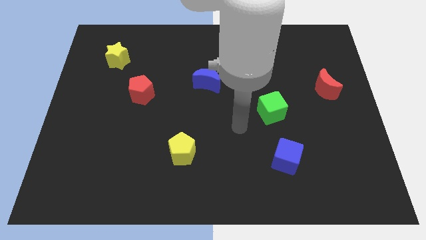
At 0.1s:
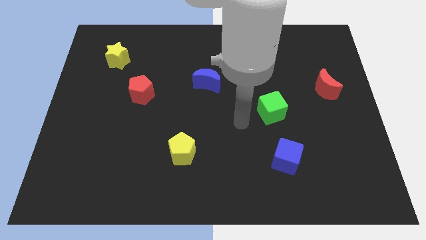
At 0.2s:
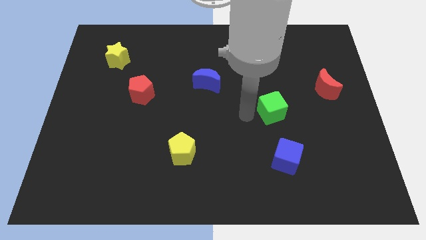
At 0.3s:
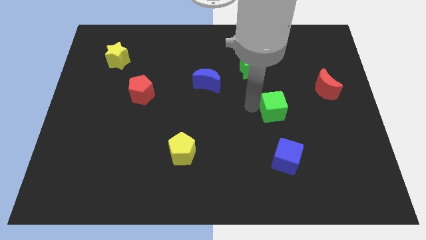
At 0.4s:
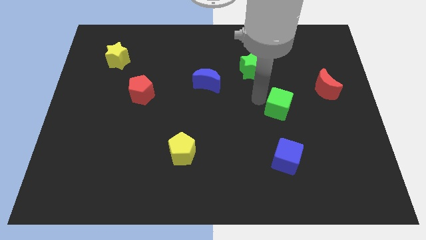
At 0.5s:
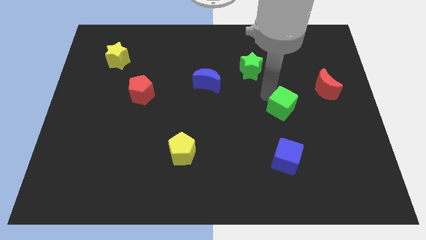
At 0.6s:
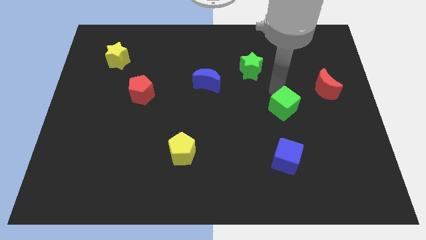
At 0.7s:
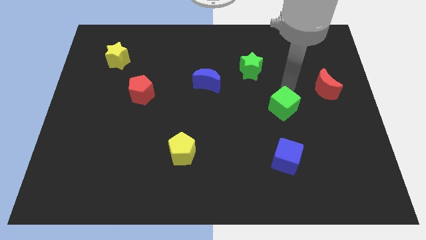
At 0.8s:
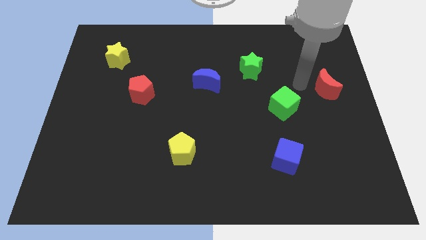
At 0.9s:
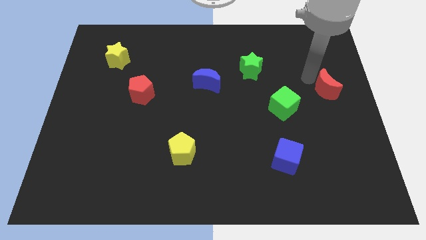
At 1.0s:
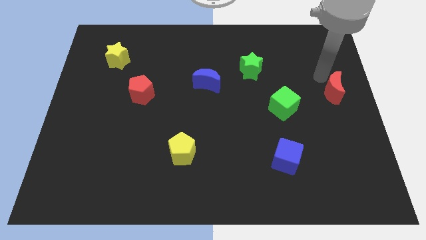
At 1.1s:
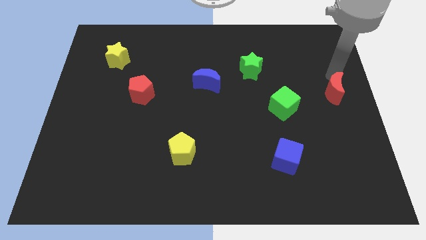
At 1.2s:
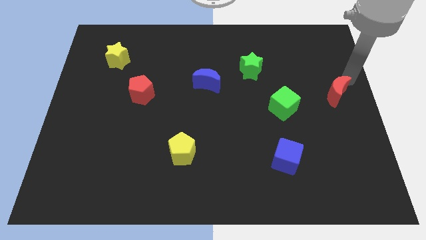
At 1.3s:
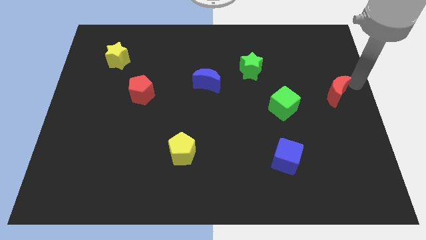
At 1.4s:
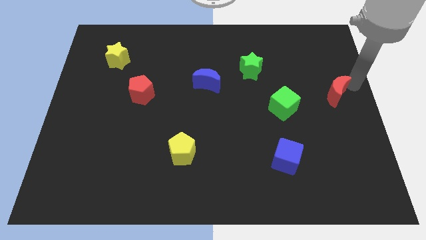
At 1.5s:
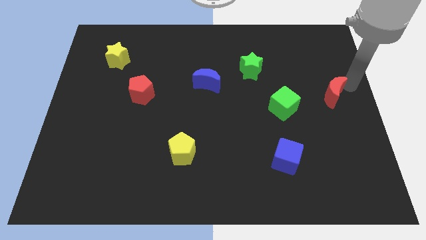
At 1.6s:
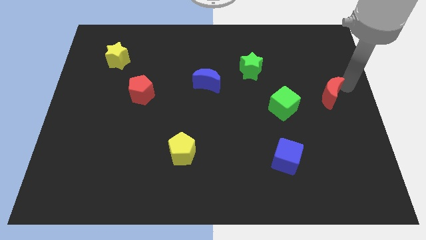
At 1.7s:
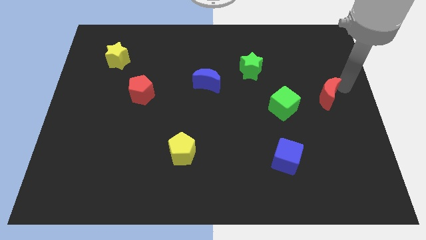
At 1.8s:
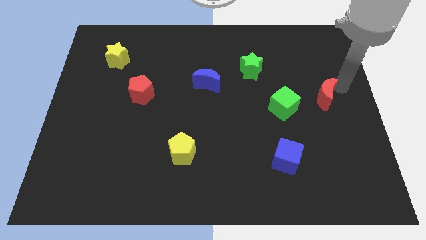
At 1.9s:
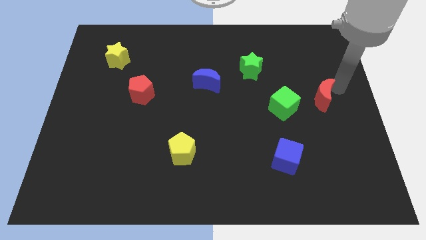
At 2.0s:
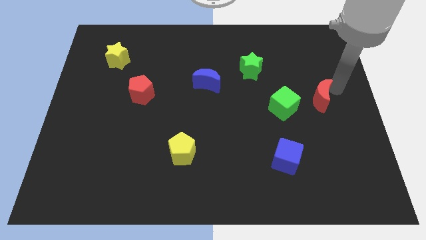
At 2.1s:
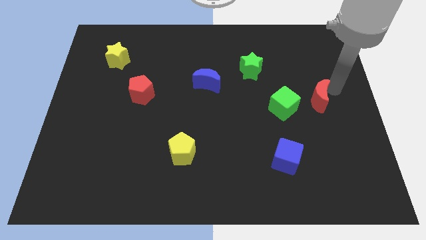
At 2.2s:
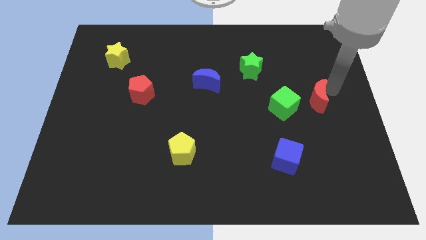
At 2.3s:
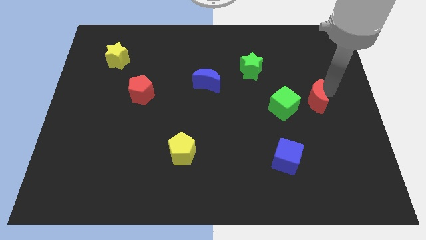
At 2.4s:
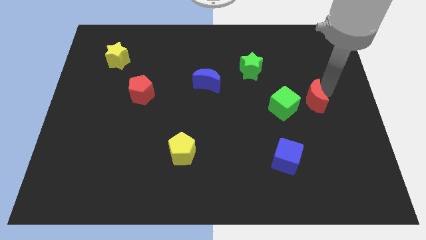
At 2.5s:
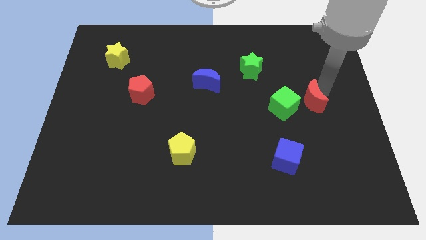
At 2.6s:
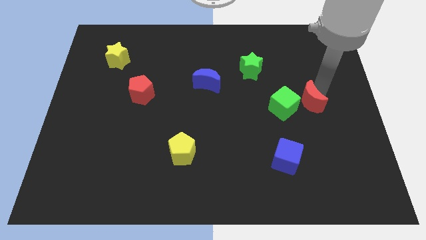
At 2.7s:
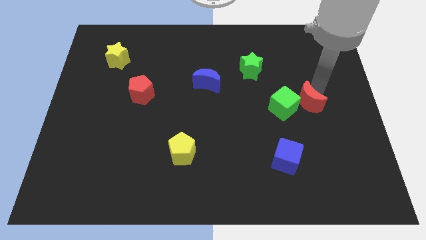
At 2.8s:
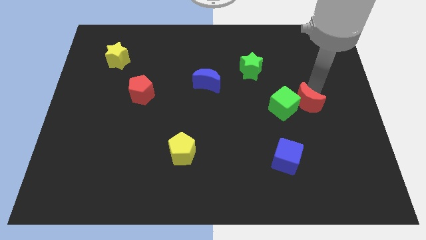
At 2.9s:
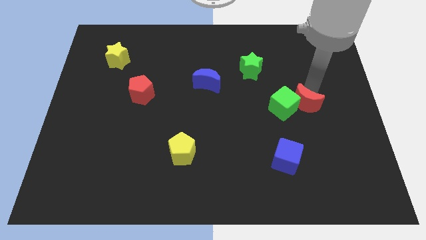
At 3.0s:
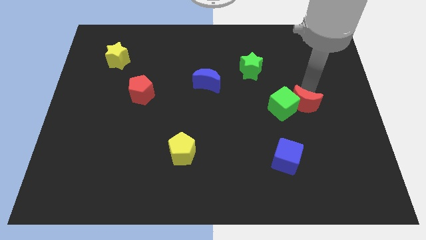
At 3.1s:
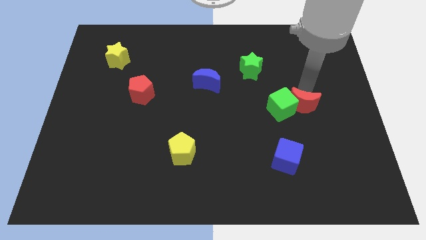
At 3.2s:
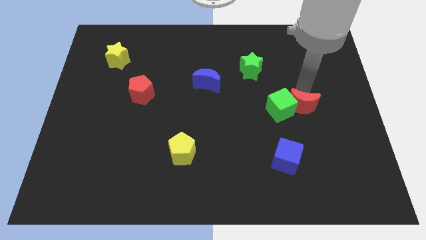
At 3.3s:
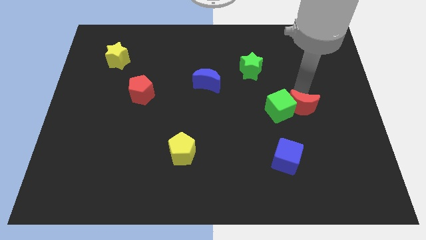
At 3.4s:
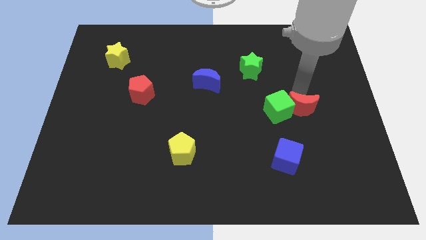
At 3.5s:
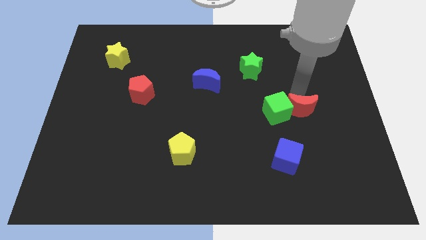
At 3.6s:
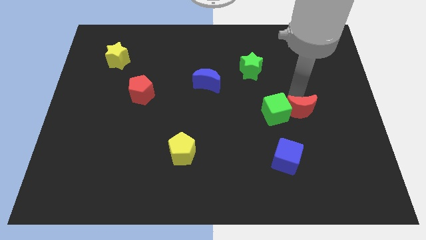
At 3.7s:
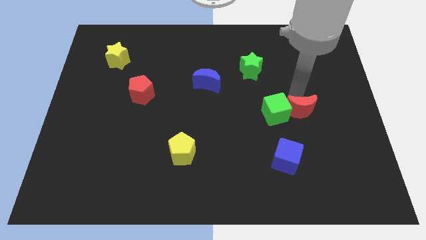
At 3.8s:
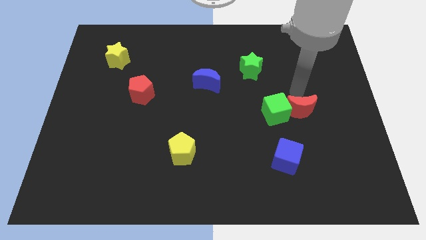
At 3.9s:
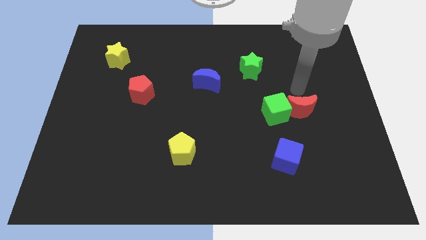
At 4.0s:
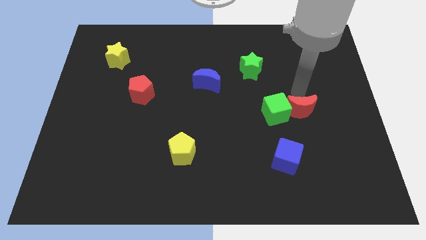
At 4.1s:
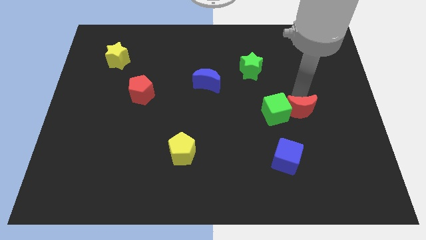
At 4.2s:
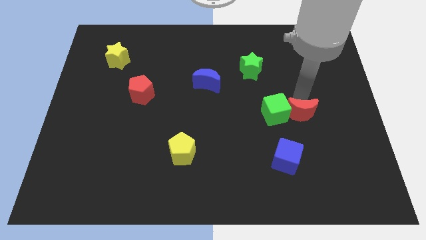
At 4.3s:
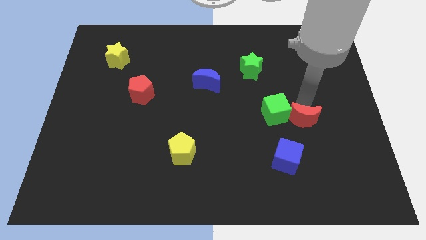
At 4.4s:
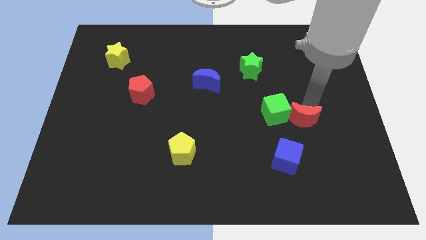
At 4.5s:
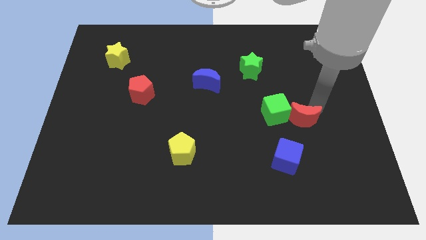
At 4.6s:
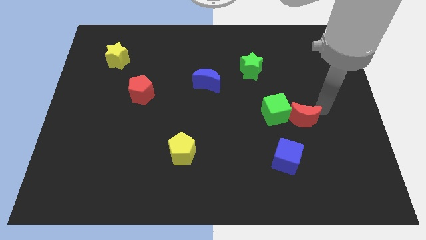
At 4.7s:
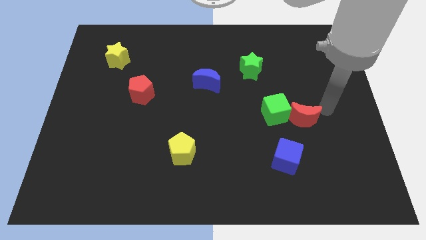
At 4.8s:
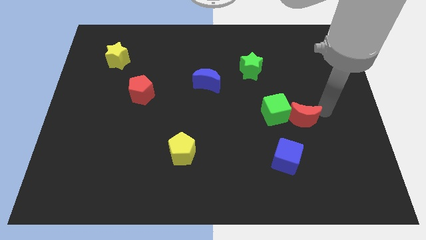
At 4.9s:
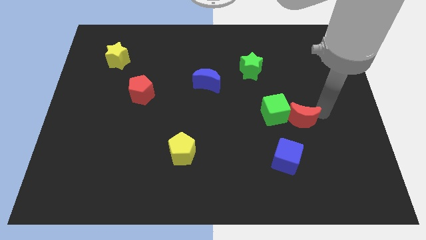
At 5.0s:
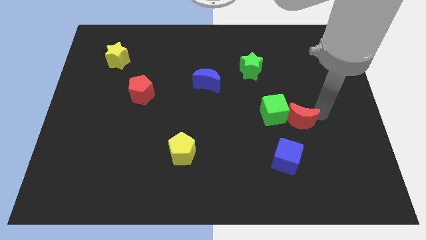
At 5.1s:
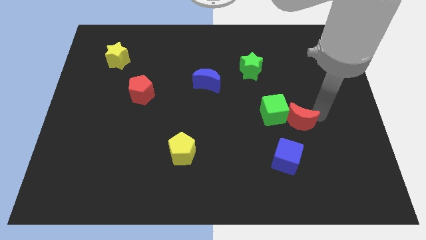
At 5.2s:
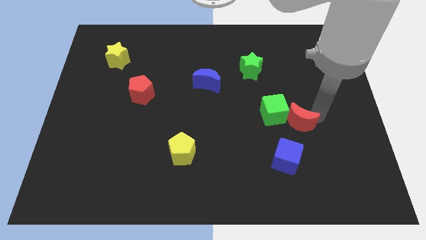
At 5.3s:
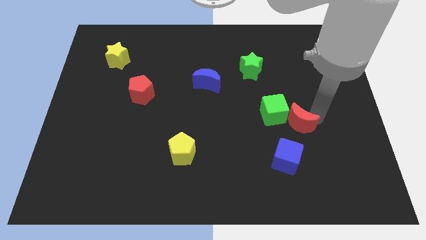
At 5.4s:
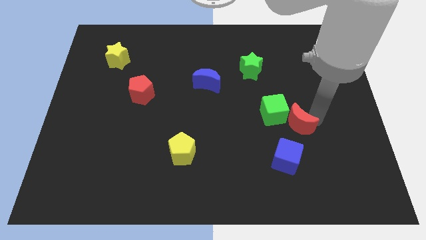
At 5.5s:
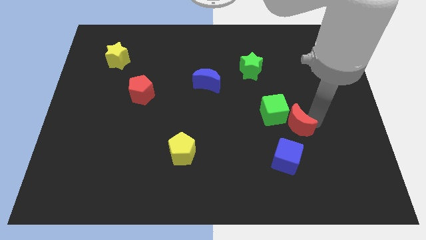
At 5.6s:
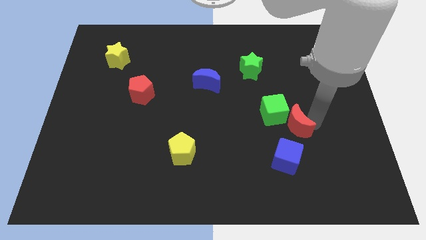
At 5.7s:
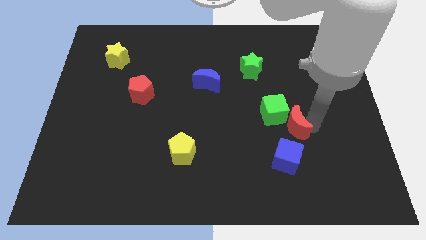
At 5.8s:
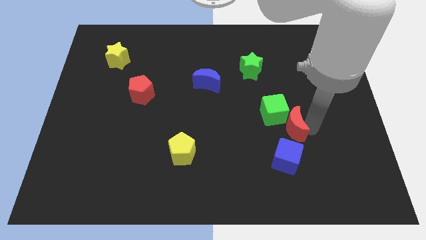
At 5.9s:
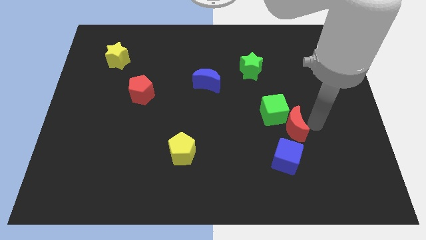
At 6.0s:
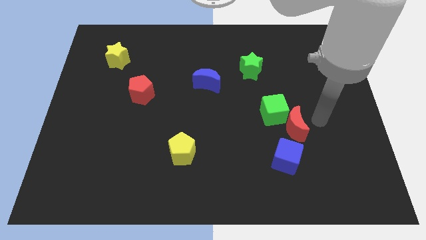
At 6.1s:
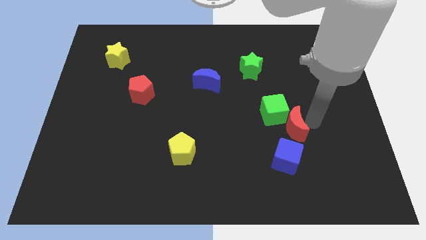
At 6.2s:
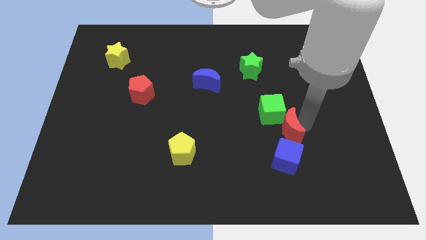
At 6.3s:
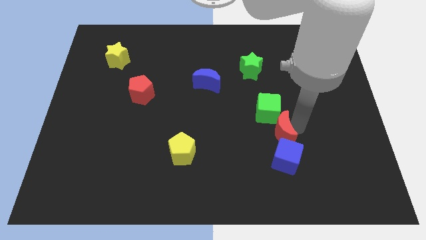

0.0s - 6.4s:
put the red moon diagonally up and to the left of the blue cube

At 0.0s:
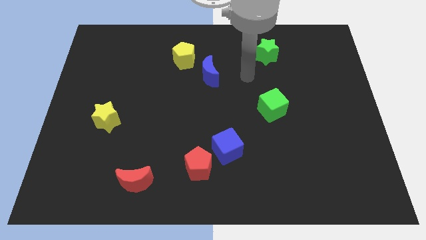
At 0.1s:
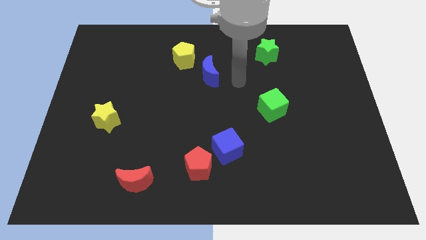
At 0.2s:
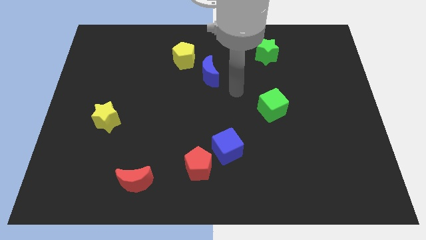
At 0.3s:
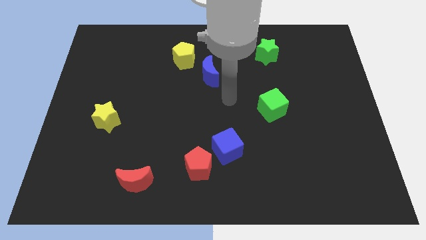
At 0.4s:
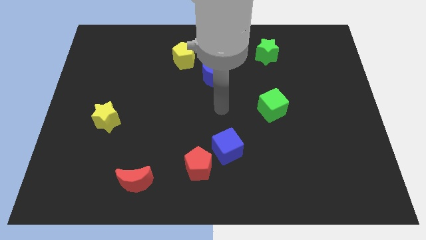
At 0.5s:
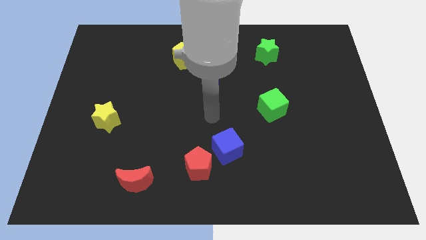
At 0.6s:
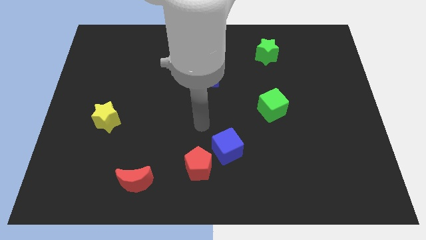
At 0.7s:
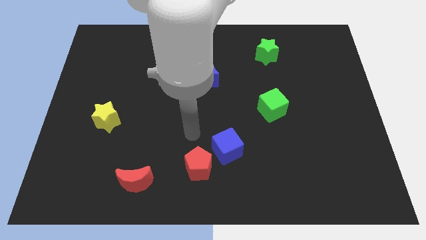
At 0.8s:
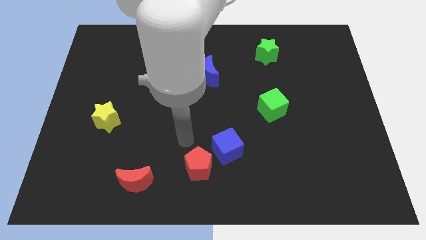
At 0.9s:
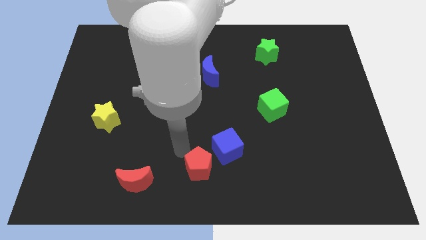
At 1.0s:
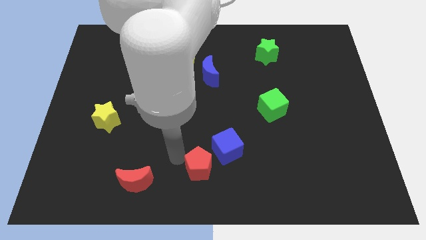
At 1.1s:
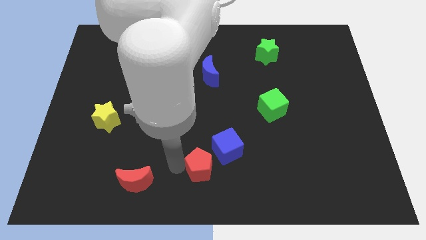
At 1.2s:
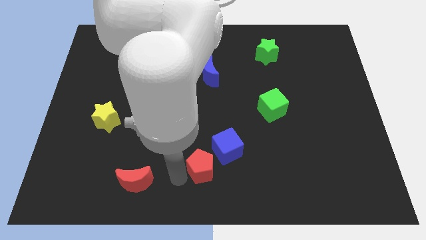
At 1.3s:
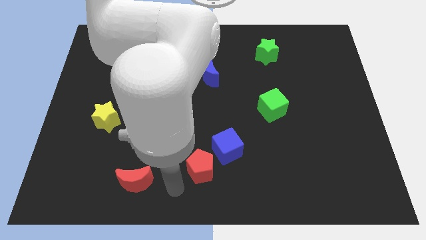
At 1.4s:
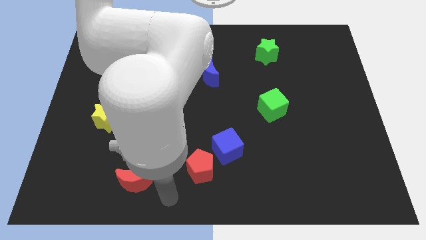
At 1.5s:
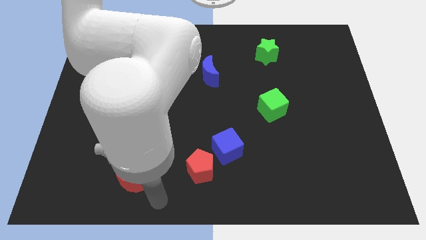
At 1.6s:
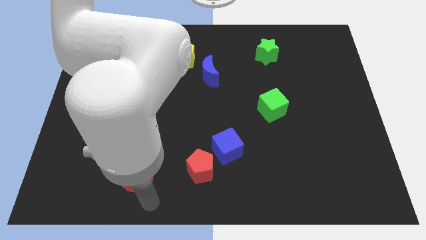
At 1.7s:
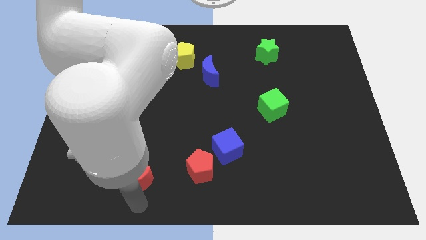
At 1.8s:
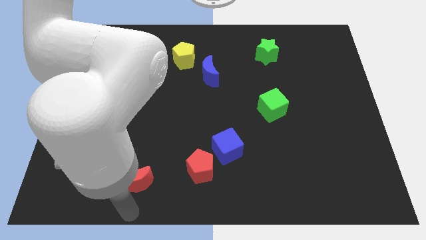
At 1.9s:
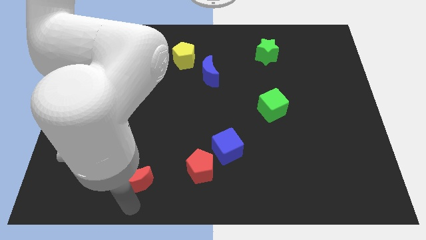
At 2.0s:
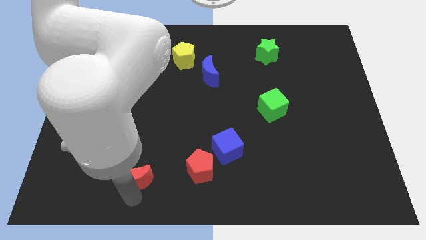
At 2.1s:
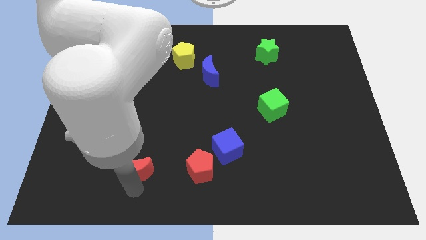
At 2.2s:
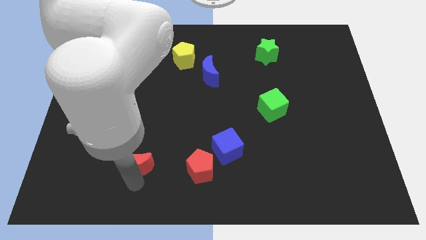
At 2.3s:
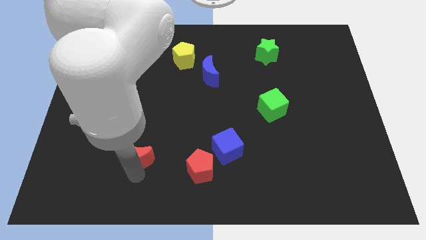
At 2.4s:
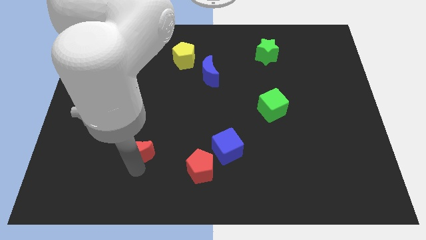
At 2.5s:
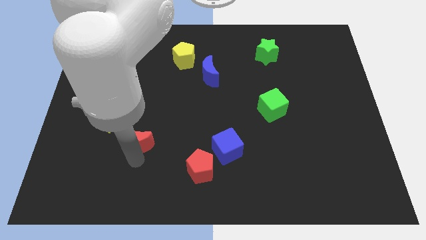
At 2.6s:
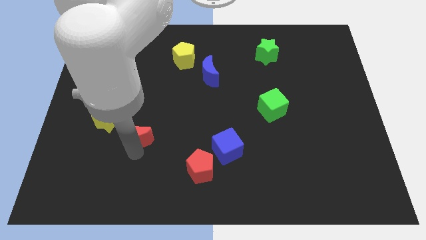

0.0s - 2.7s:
move the red moon to the right side of the yellow star
